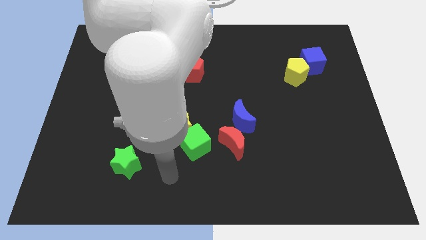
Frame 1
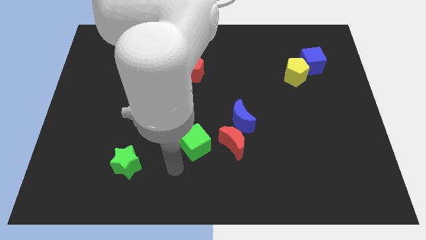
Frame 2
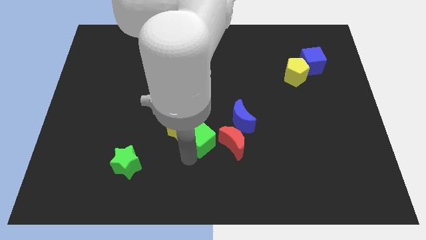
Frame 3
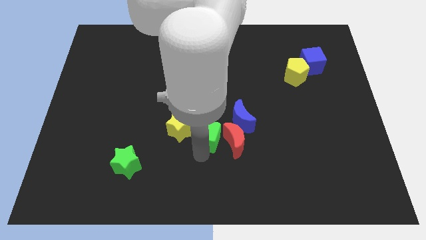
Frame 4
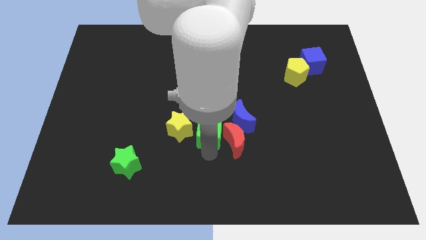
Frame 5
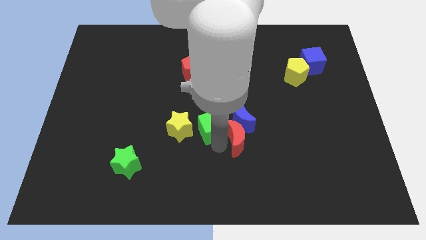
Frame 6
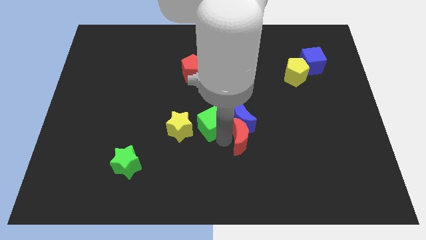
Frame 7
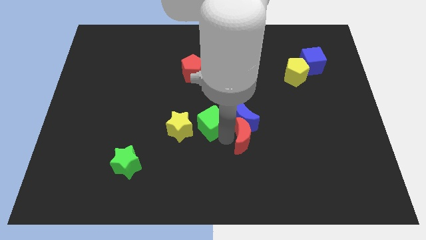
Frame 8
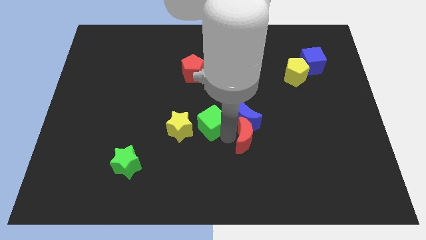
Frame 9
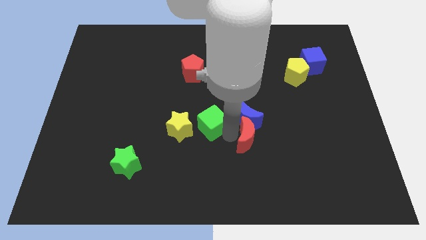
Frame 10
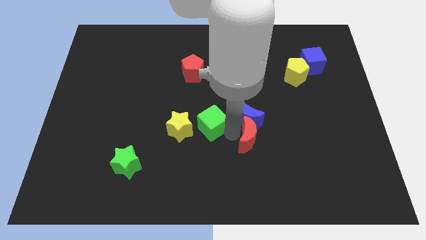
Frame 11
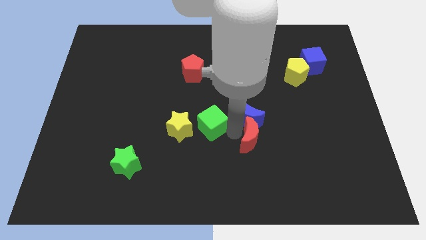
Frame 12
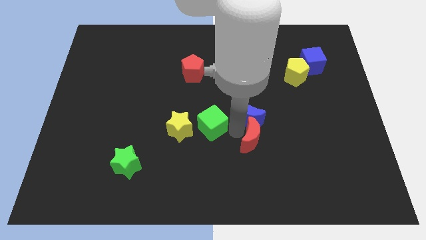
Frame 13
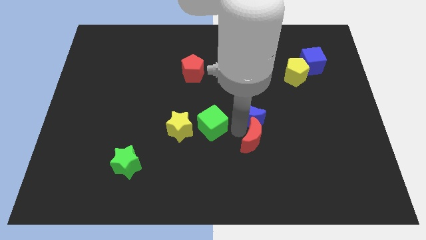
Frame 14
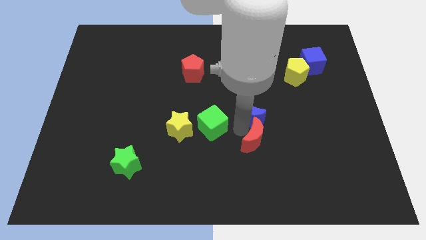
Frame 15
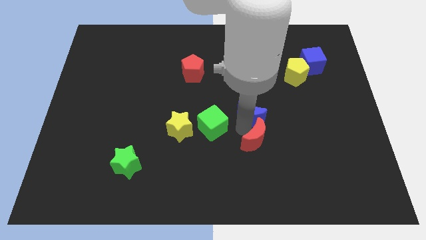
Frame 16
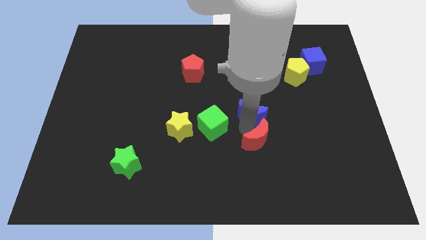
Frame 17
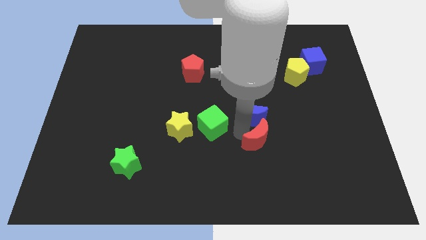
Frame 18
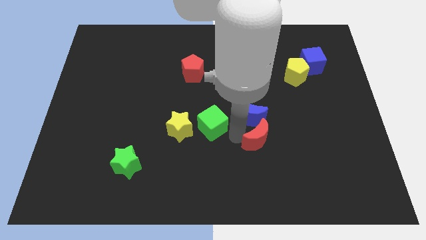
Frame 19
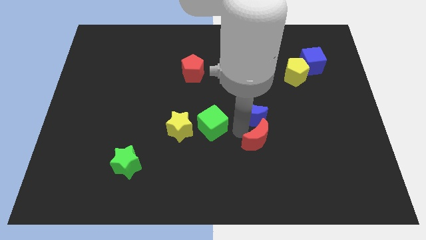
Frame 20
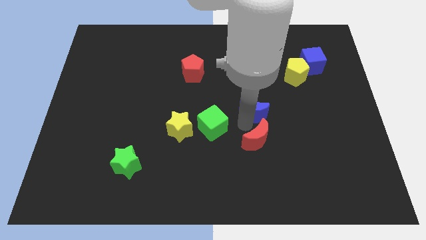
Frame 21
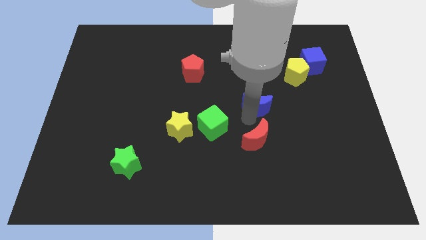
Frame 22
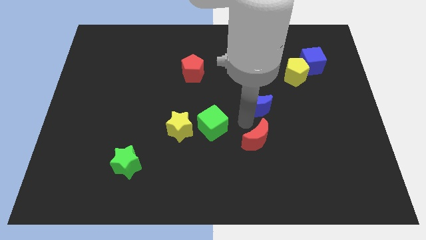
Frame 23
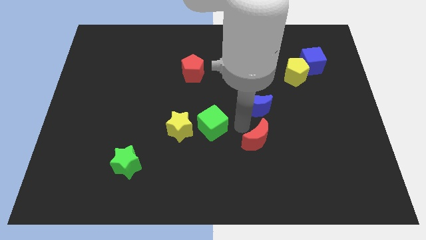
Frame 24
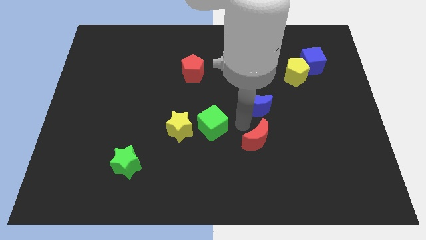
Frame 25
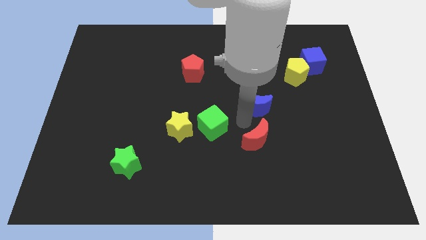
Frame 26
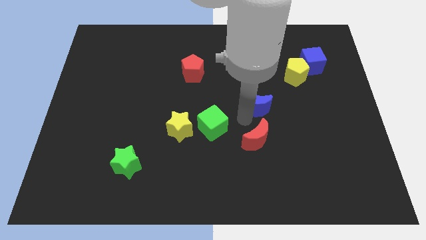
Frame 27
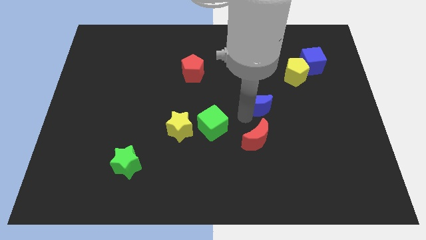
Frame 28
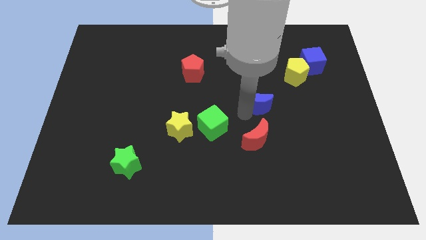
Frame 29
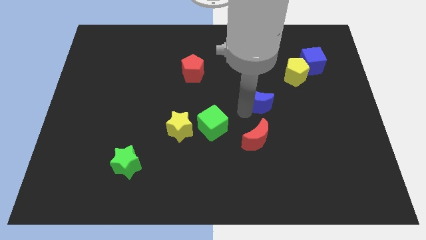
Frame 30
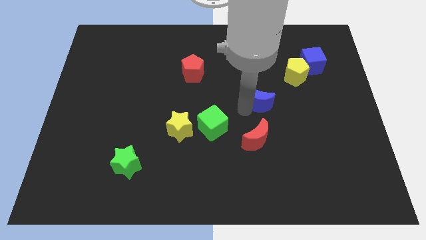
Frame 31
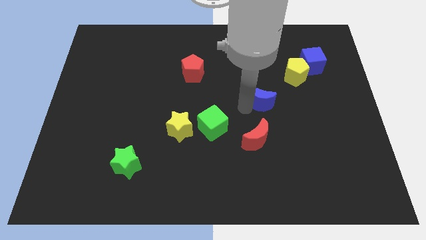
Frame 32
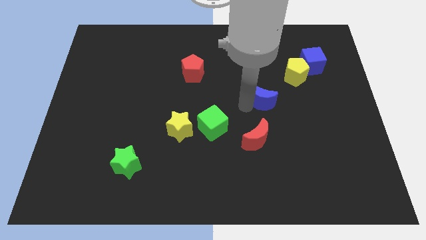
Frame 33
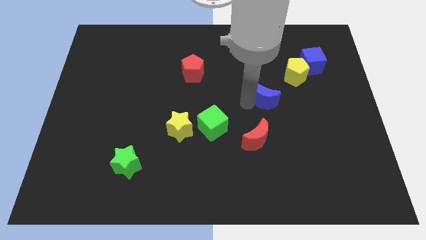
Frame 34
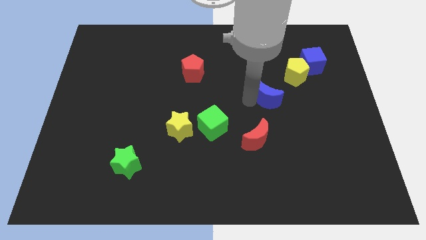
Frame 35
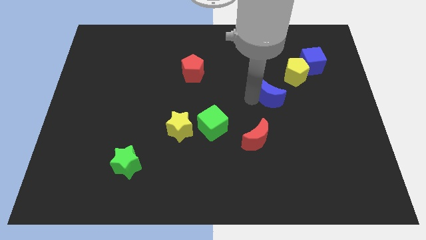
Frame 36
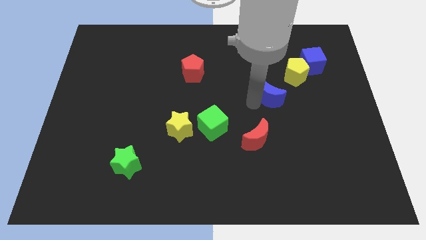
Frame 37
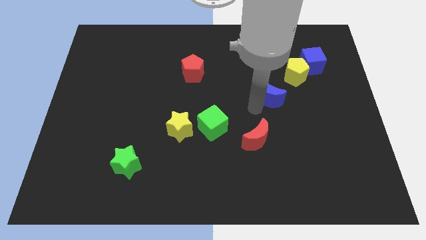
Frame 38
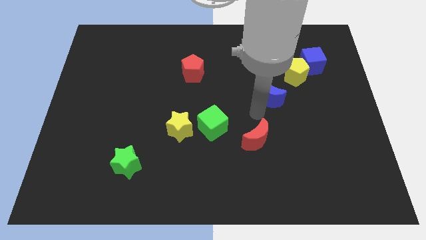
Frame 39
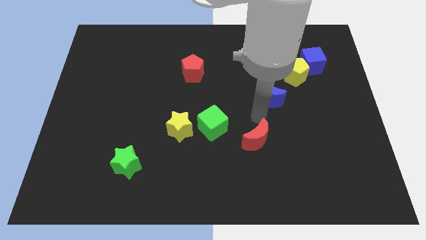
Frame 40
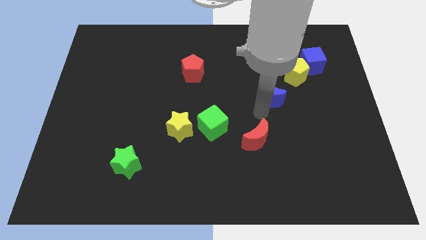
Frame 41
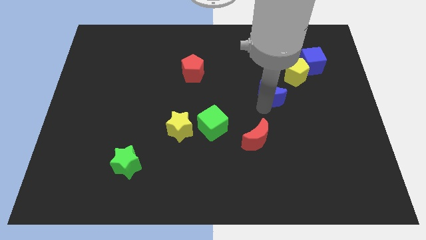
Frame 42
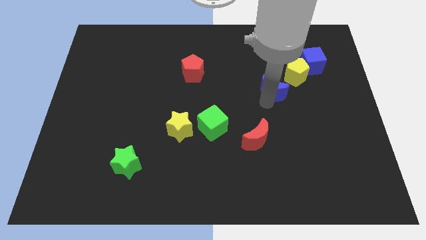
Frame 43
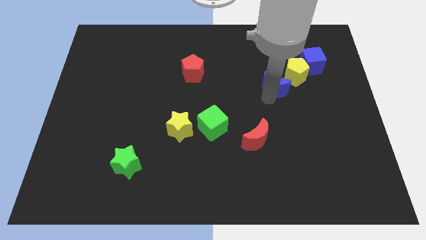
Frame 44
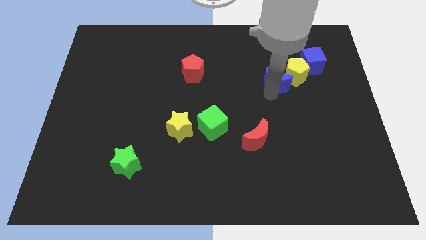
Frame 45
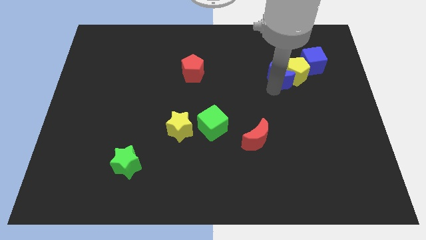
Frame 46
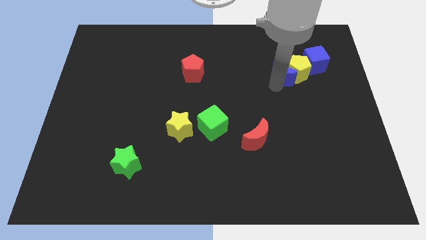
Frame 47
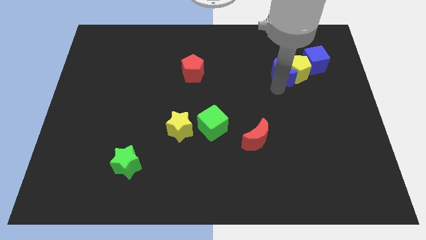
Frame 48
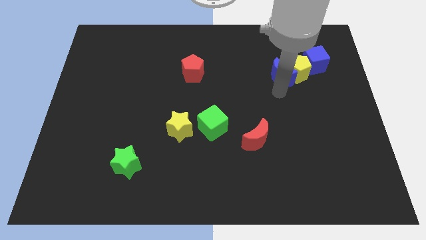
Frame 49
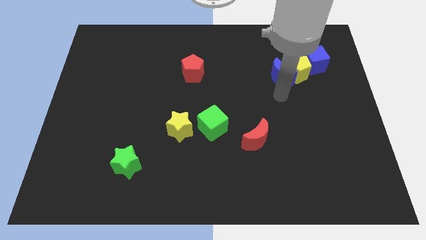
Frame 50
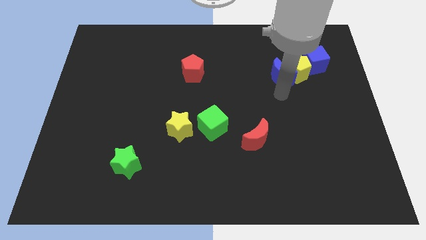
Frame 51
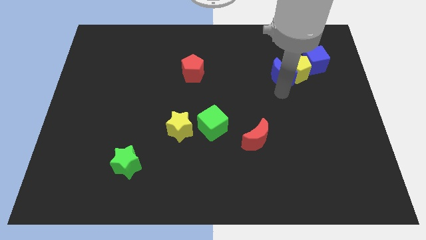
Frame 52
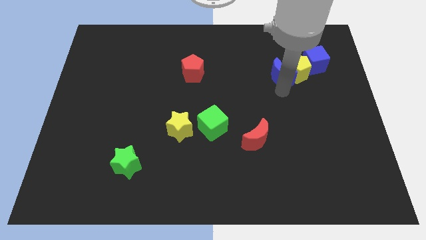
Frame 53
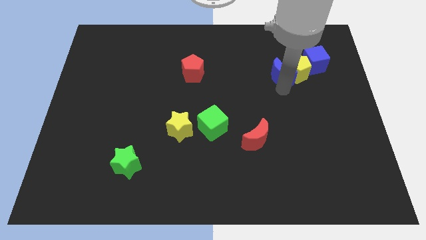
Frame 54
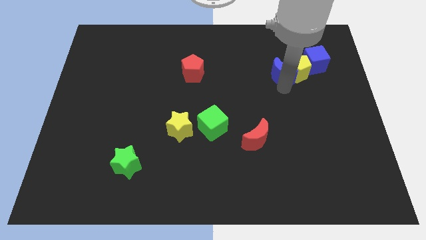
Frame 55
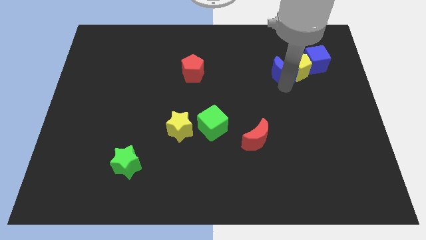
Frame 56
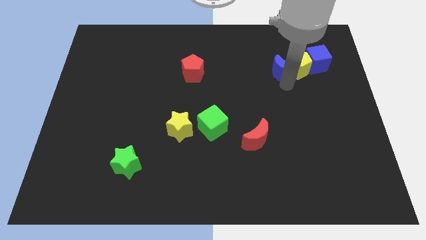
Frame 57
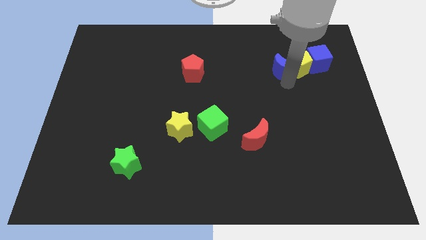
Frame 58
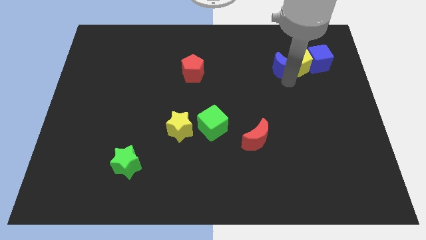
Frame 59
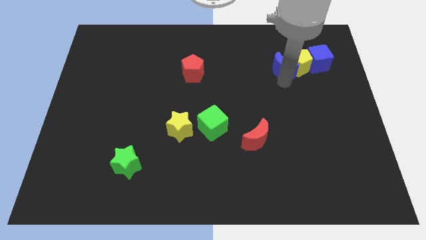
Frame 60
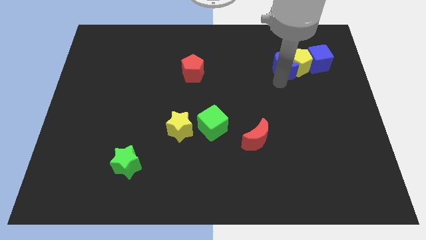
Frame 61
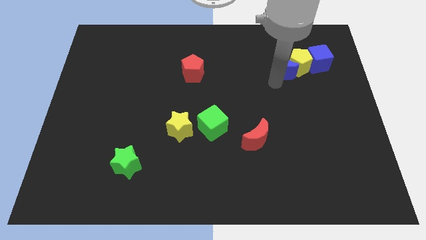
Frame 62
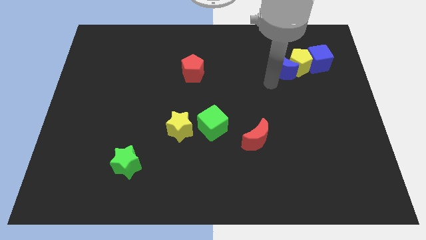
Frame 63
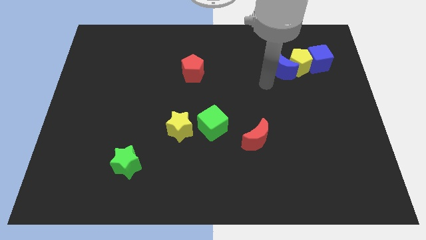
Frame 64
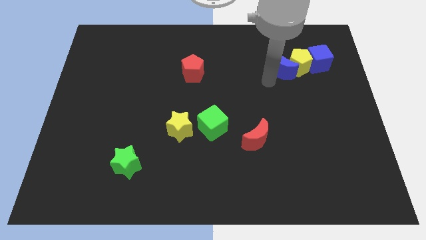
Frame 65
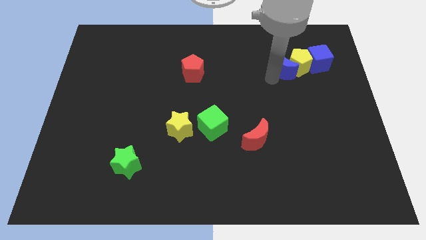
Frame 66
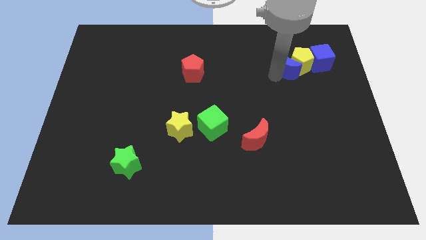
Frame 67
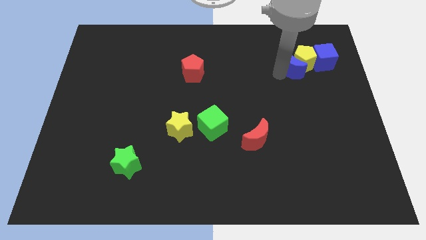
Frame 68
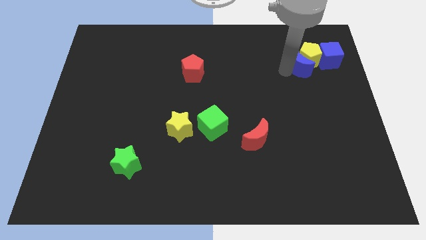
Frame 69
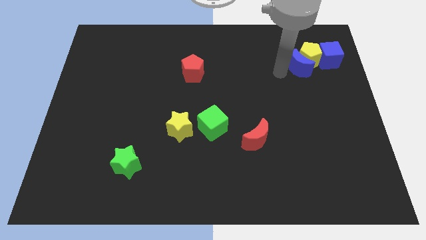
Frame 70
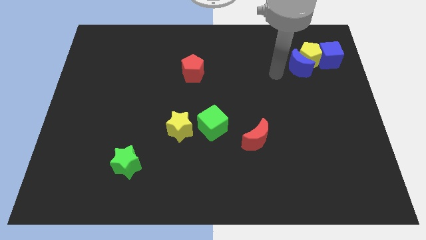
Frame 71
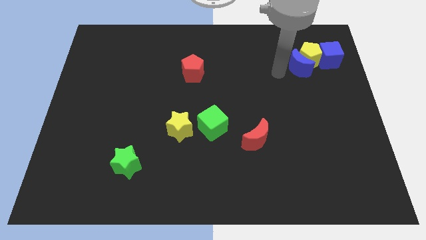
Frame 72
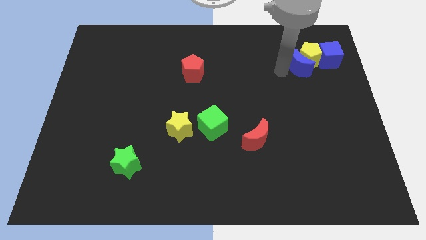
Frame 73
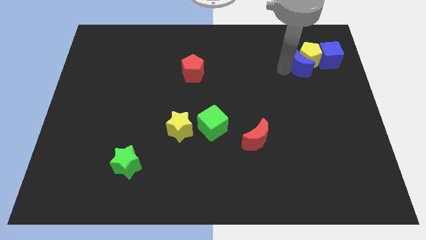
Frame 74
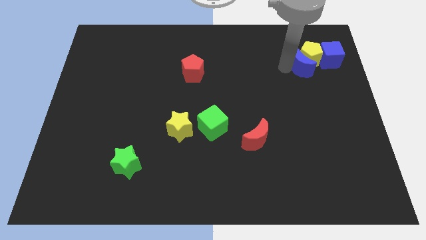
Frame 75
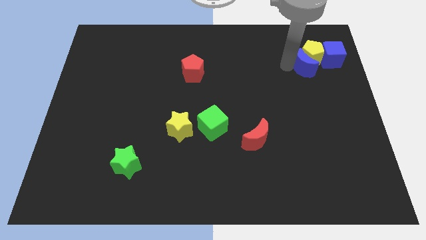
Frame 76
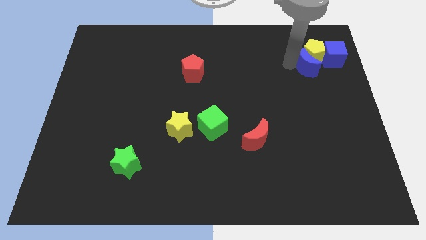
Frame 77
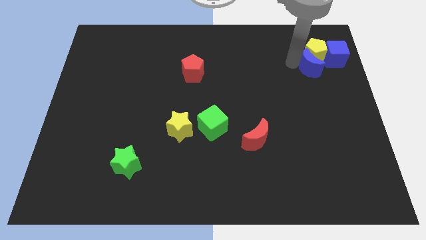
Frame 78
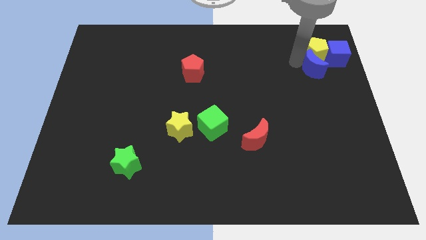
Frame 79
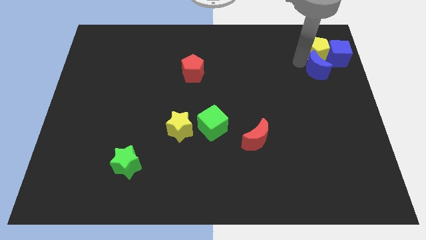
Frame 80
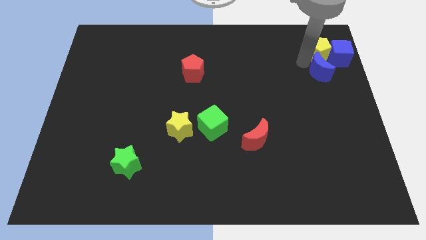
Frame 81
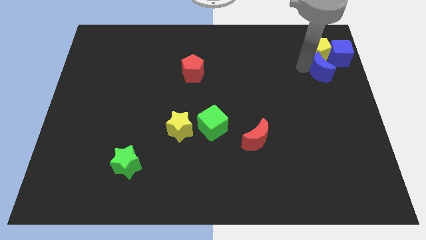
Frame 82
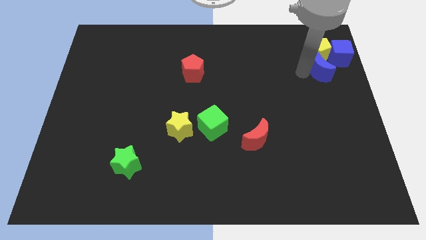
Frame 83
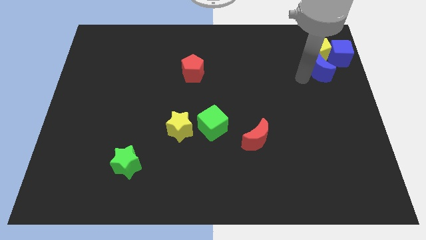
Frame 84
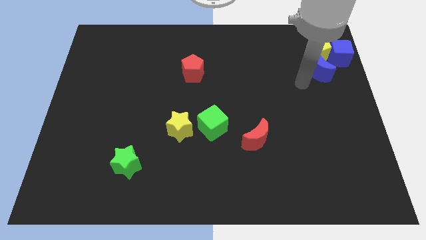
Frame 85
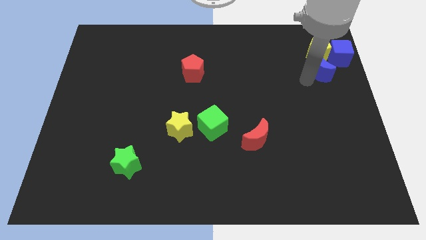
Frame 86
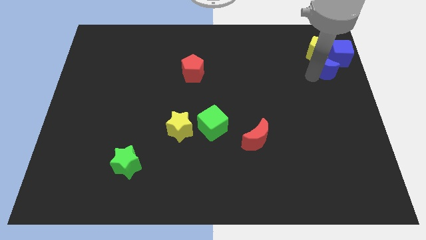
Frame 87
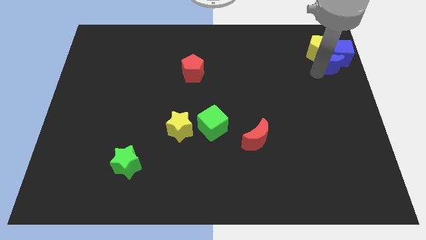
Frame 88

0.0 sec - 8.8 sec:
push the blue moon close to the blue cube
